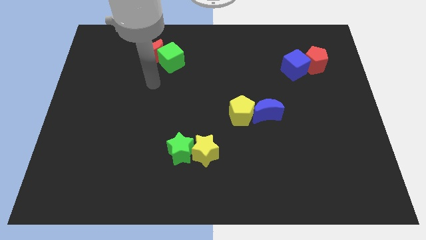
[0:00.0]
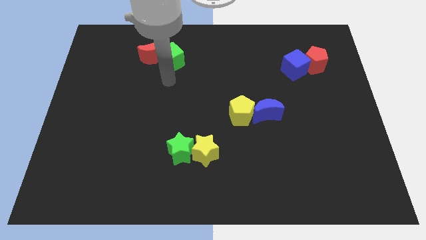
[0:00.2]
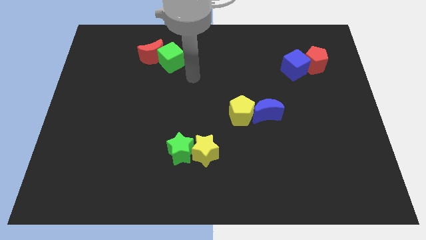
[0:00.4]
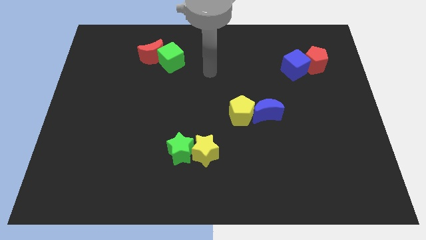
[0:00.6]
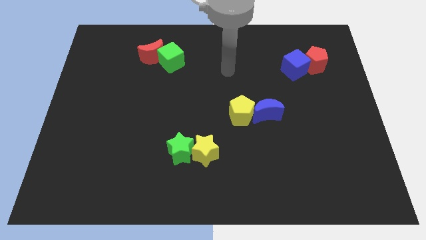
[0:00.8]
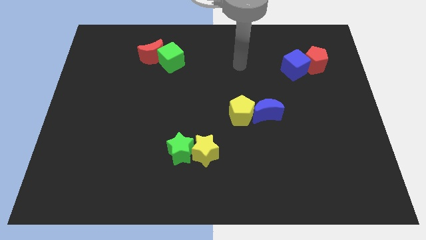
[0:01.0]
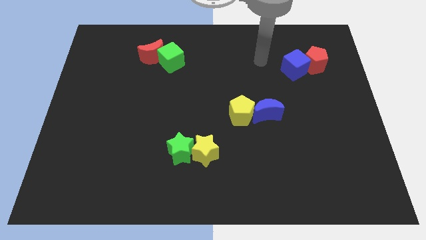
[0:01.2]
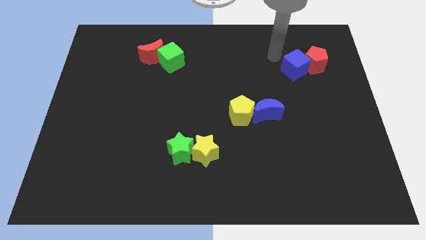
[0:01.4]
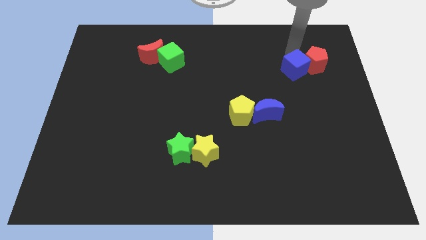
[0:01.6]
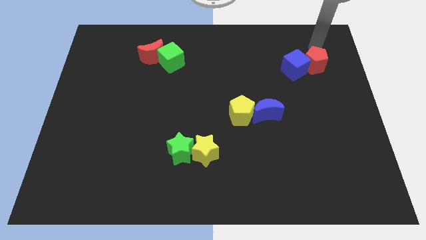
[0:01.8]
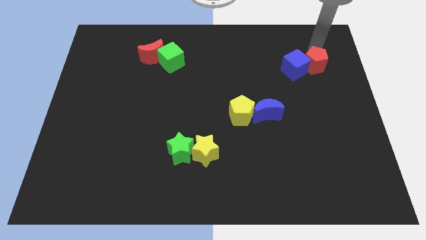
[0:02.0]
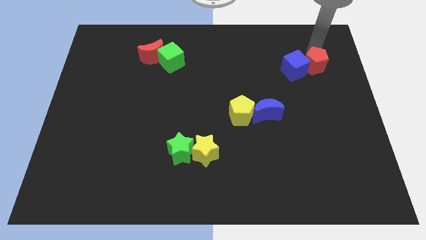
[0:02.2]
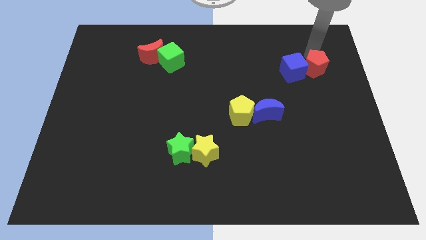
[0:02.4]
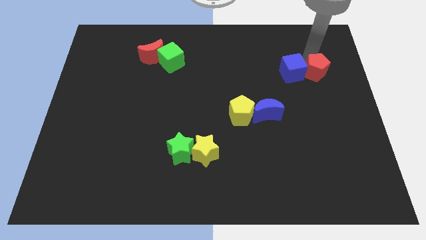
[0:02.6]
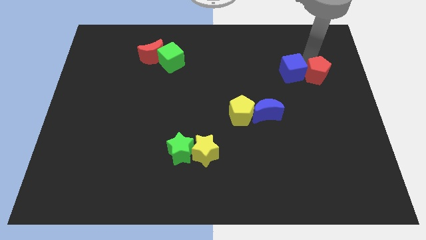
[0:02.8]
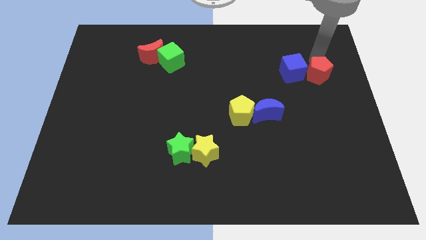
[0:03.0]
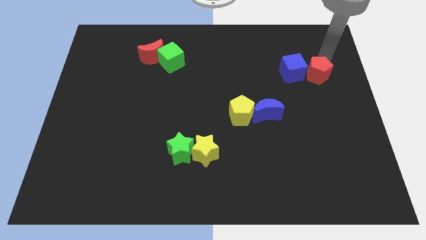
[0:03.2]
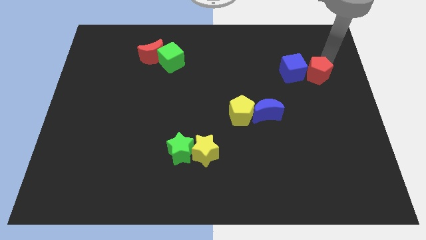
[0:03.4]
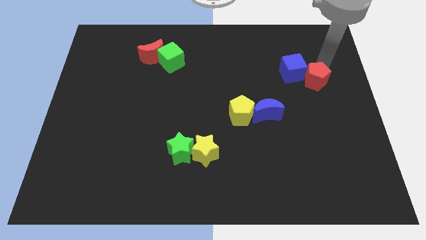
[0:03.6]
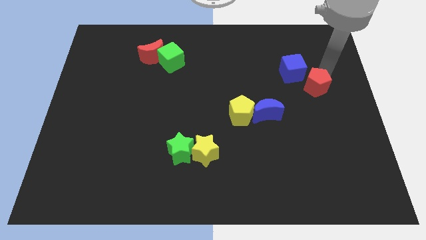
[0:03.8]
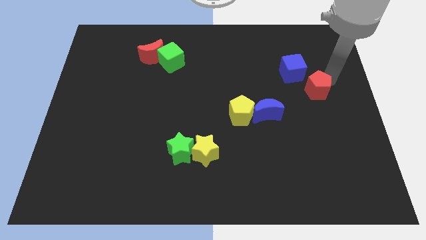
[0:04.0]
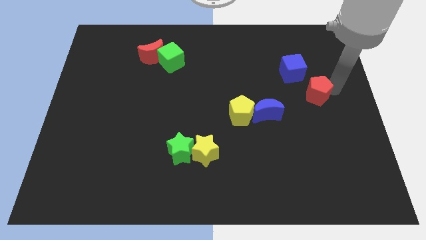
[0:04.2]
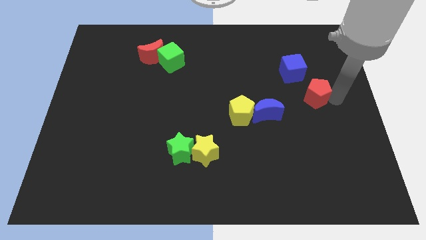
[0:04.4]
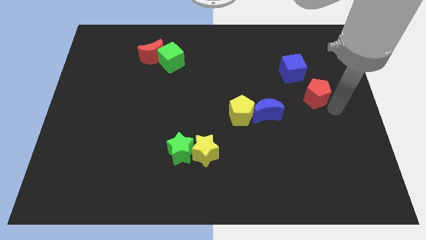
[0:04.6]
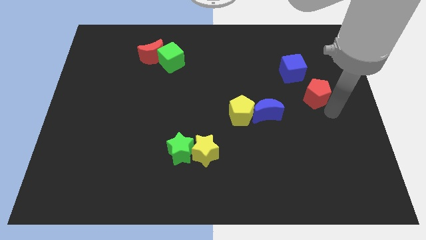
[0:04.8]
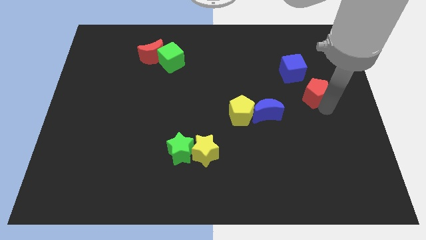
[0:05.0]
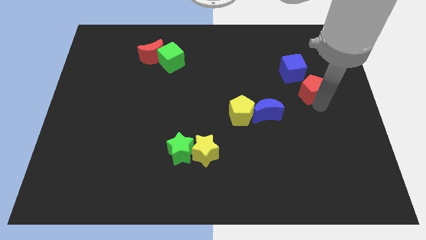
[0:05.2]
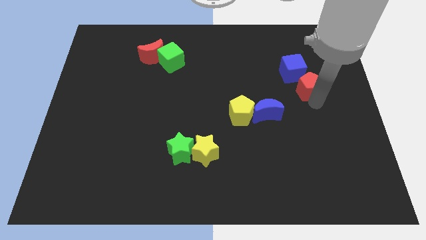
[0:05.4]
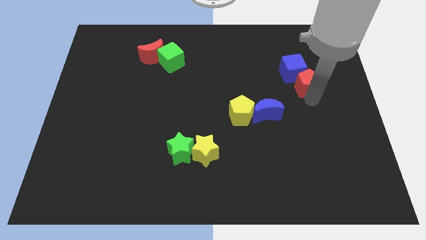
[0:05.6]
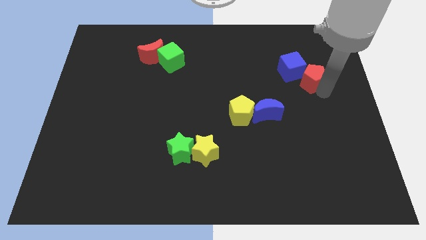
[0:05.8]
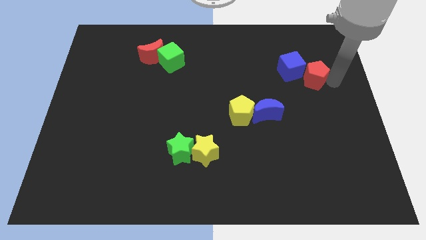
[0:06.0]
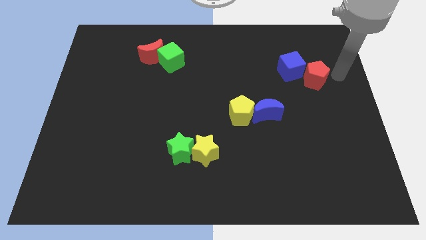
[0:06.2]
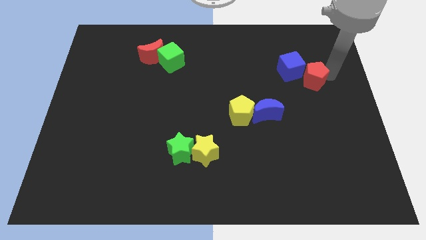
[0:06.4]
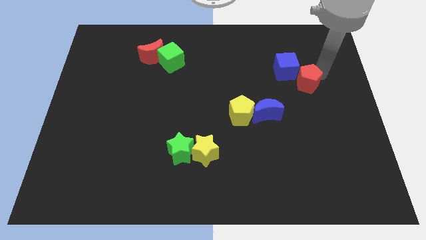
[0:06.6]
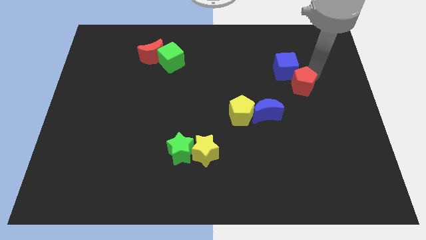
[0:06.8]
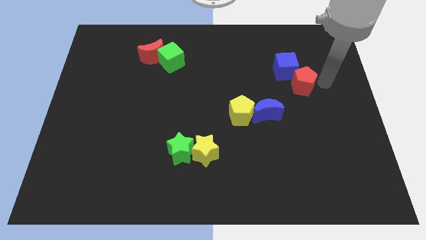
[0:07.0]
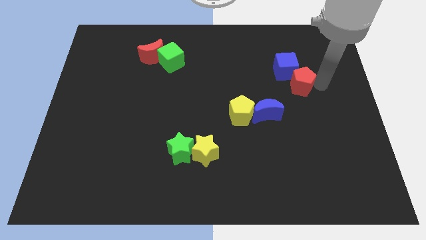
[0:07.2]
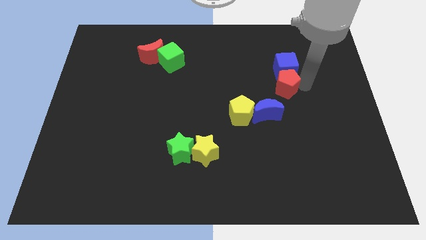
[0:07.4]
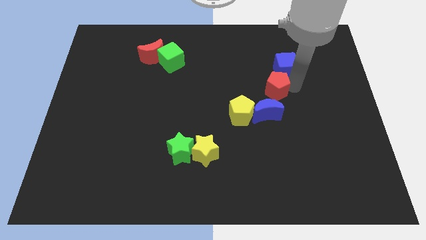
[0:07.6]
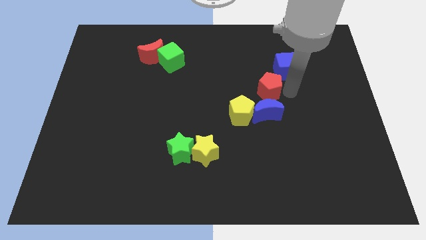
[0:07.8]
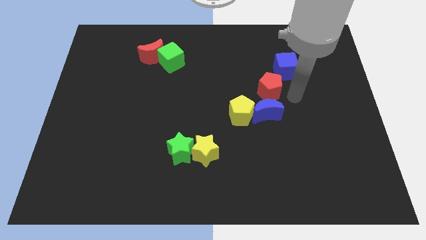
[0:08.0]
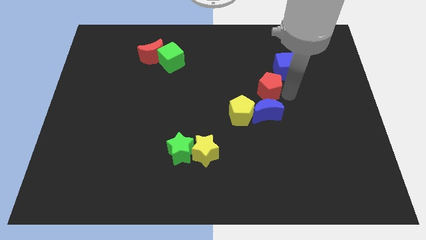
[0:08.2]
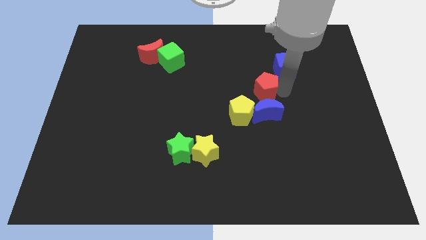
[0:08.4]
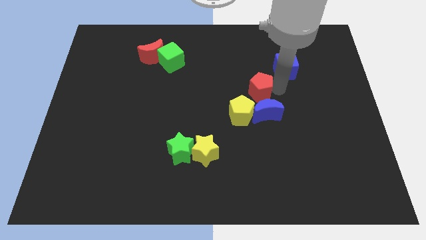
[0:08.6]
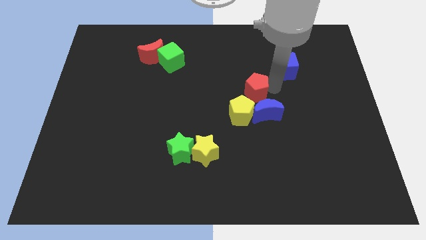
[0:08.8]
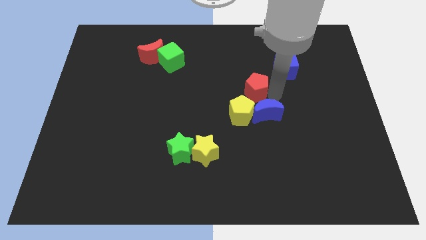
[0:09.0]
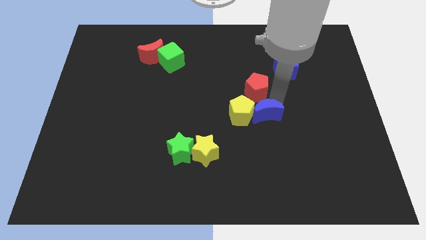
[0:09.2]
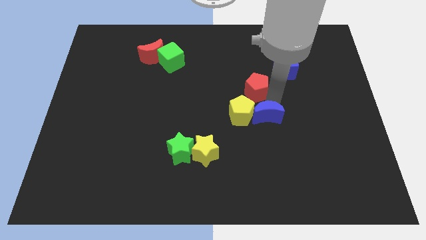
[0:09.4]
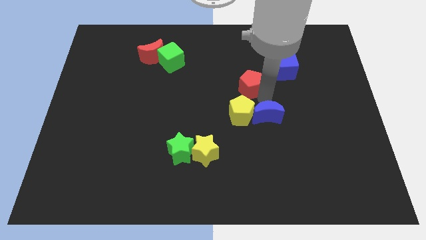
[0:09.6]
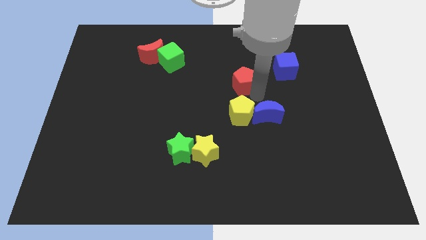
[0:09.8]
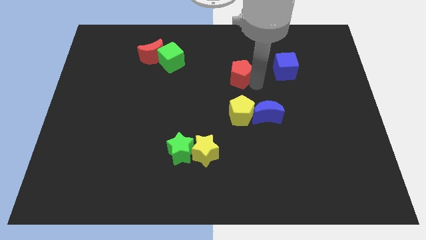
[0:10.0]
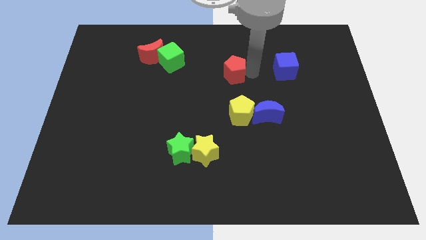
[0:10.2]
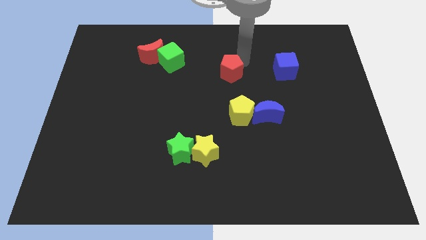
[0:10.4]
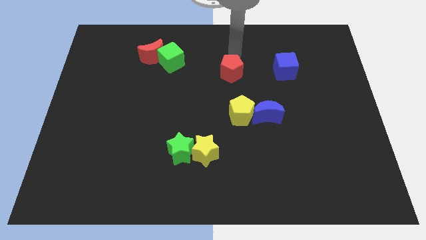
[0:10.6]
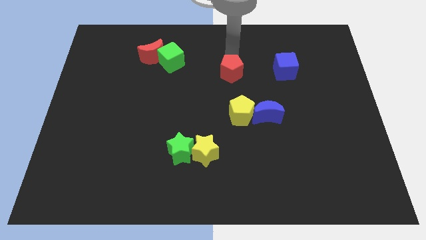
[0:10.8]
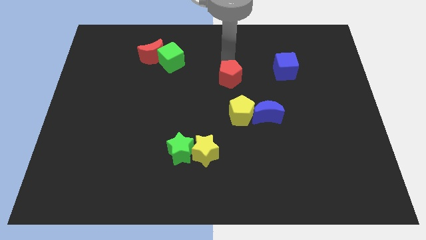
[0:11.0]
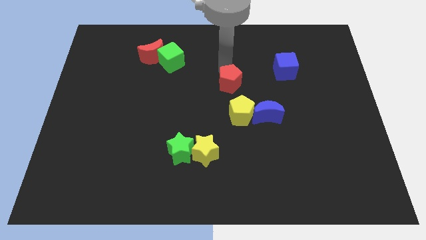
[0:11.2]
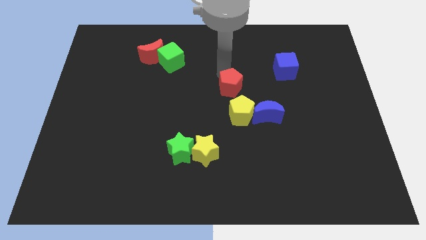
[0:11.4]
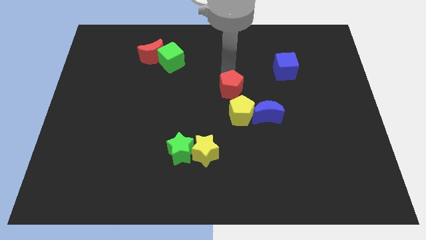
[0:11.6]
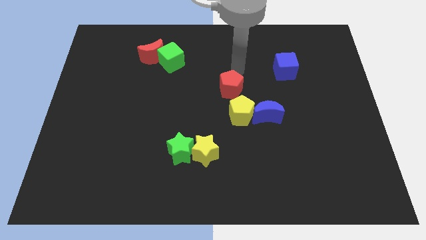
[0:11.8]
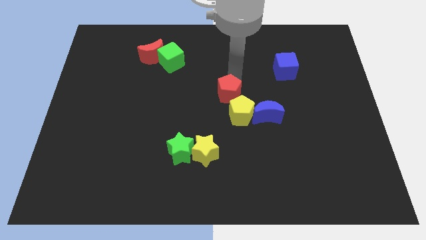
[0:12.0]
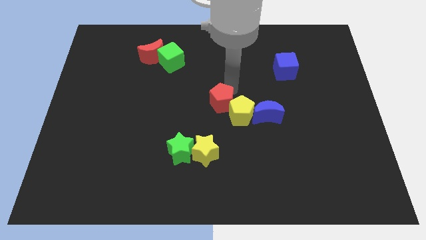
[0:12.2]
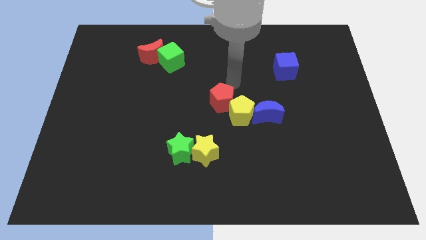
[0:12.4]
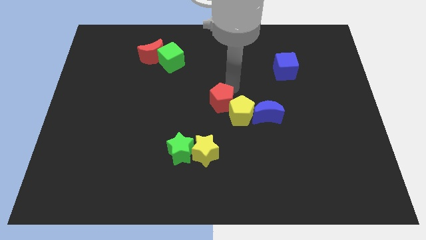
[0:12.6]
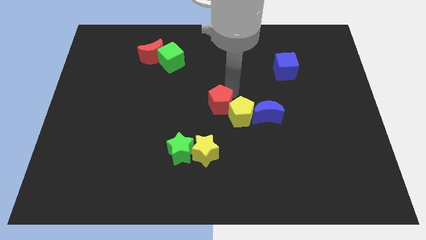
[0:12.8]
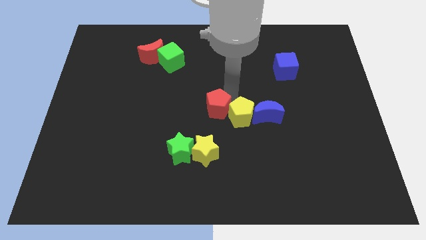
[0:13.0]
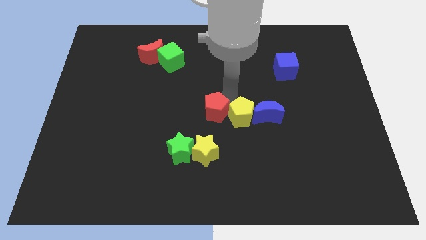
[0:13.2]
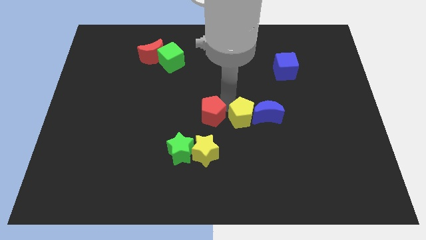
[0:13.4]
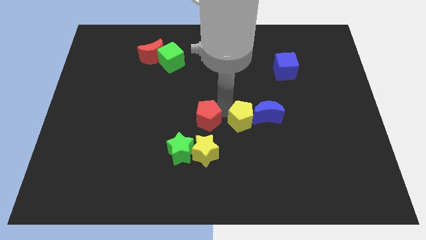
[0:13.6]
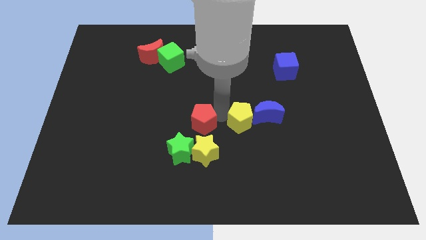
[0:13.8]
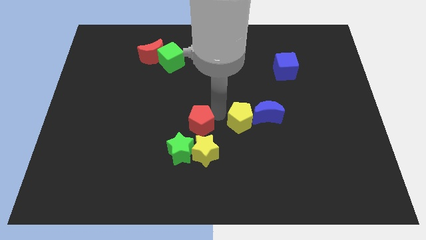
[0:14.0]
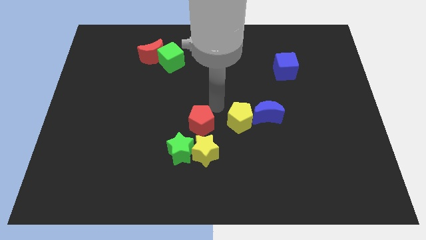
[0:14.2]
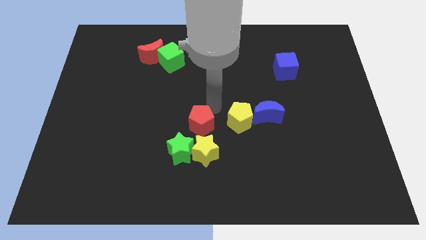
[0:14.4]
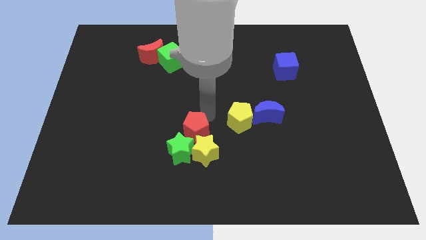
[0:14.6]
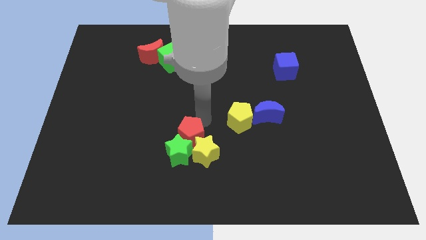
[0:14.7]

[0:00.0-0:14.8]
put the red pentagon to the green star
